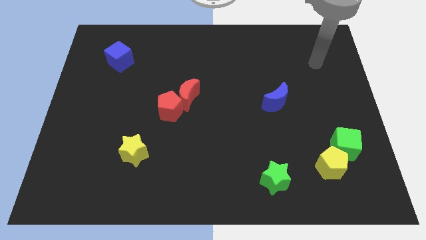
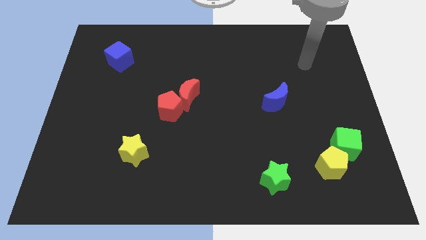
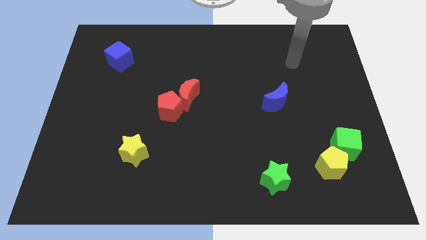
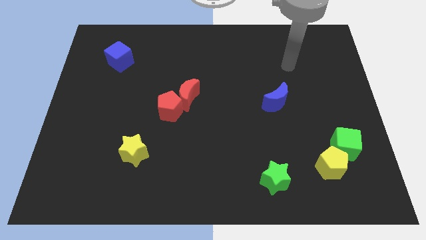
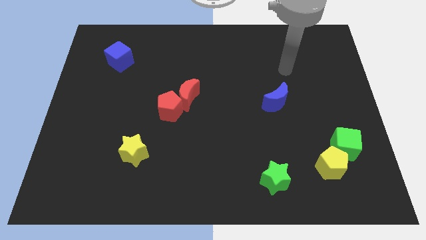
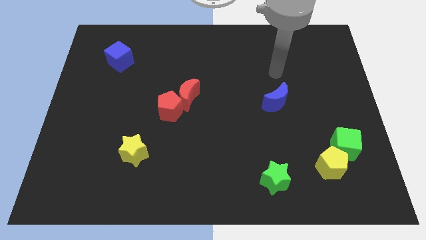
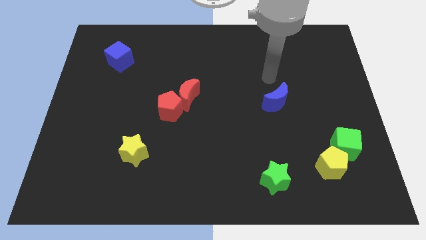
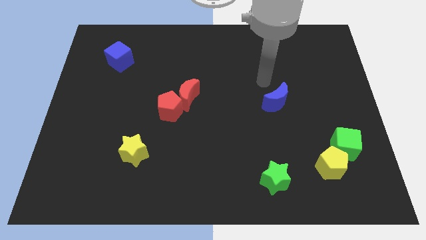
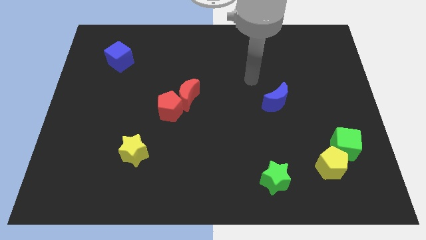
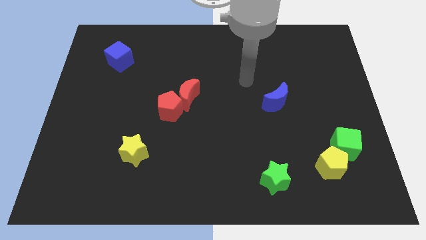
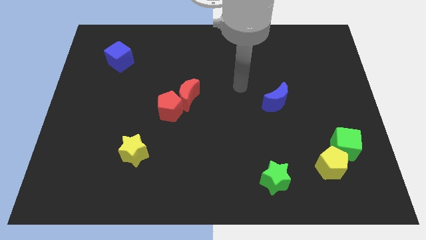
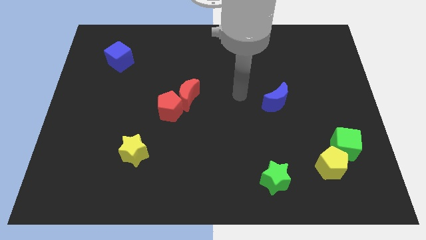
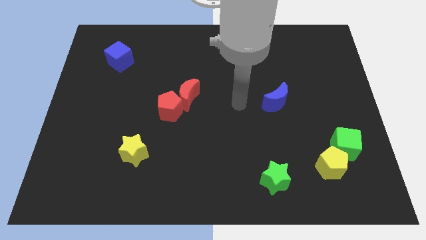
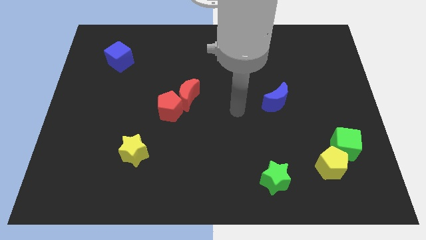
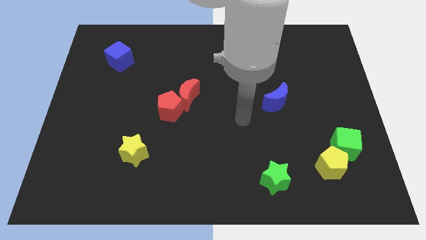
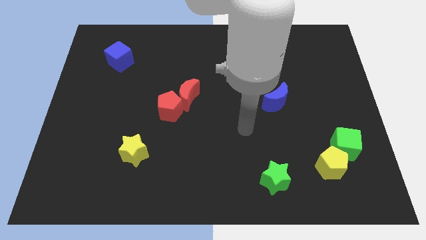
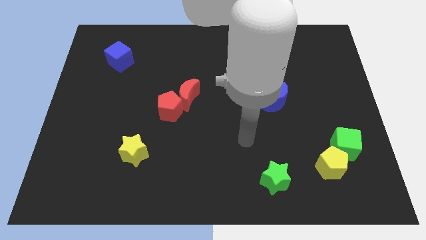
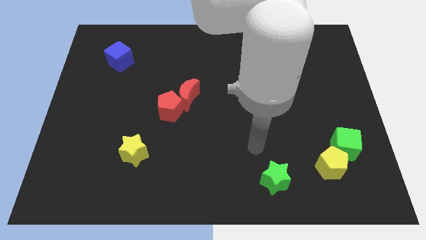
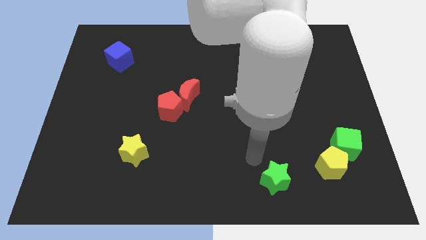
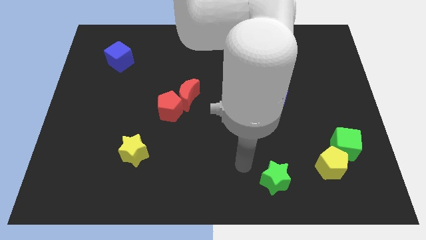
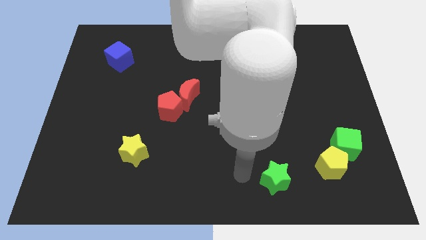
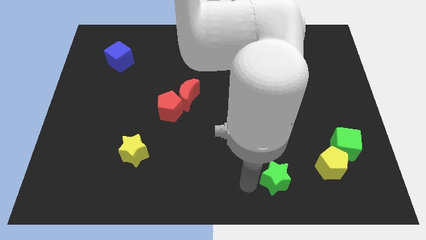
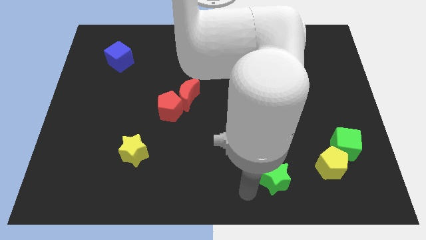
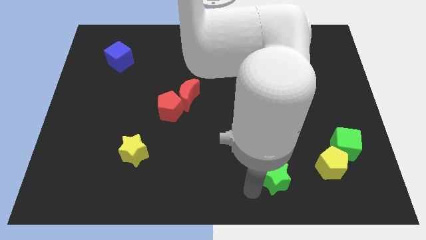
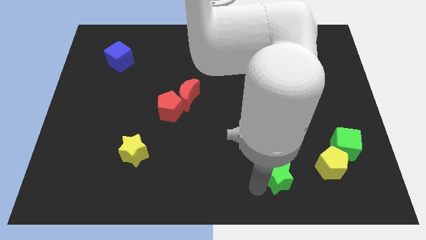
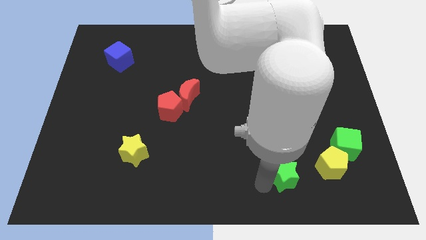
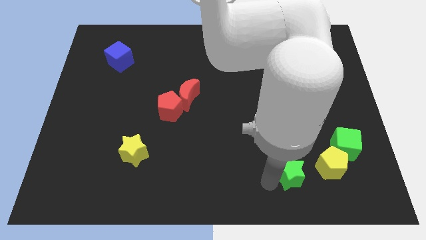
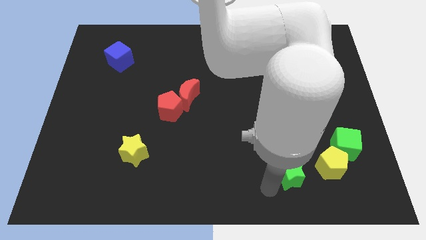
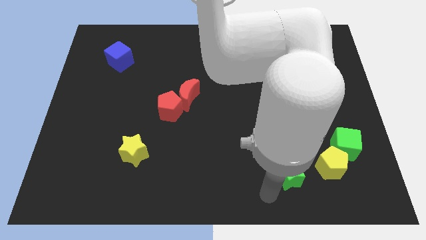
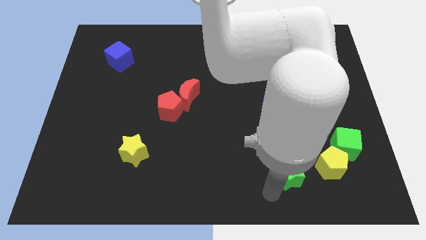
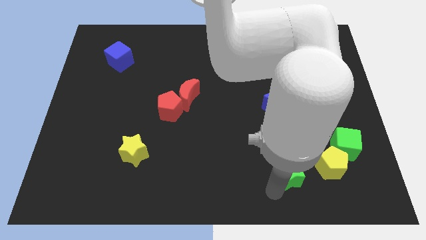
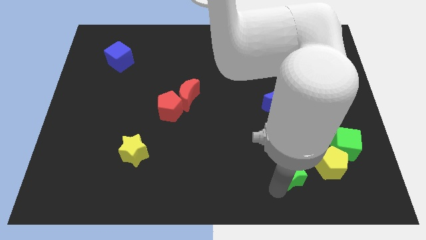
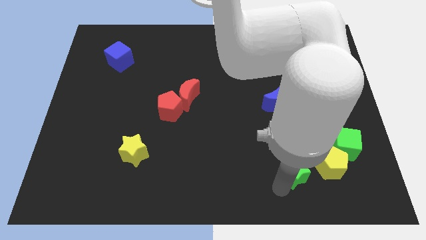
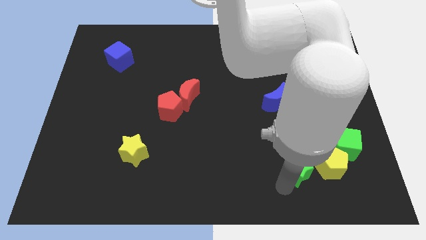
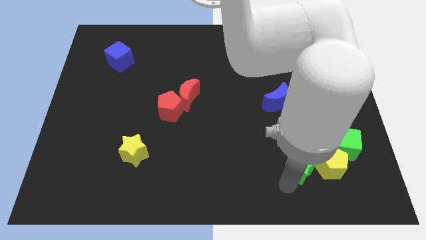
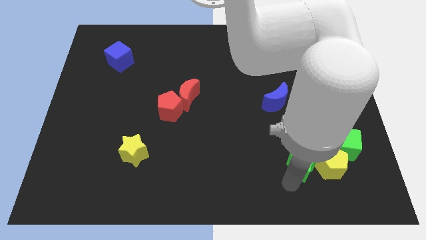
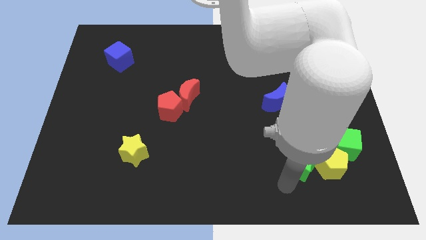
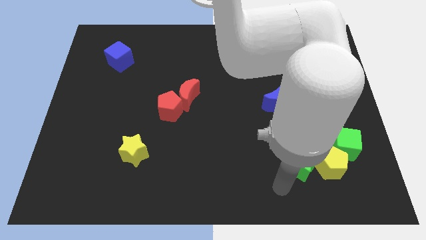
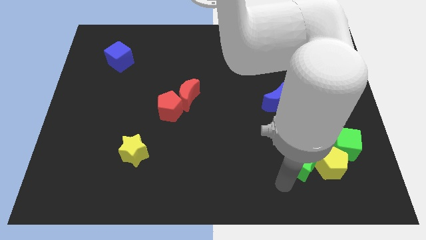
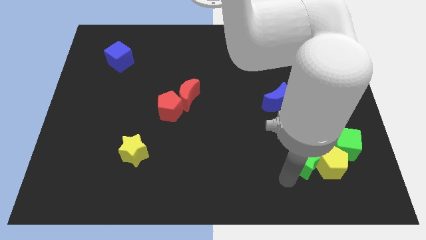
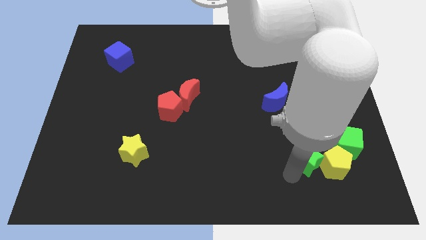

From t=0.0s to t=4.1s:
slightly slide the green star upwards and right diagonally

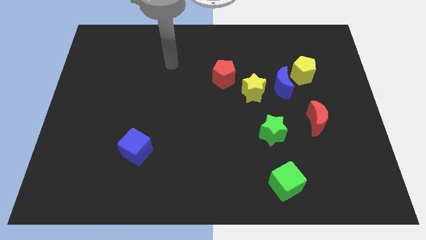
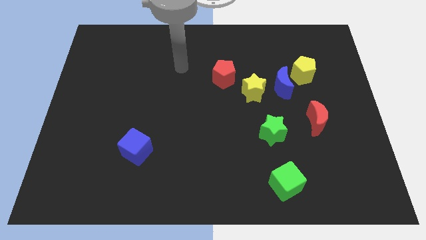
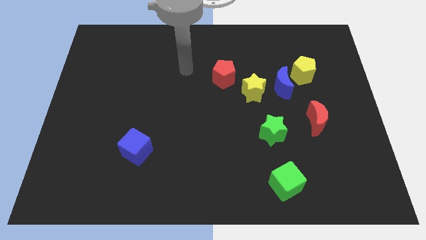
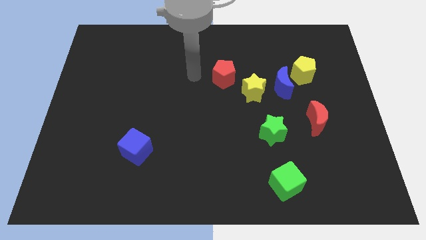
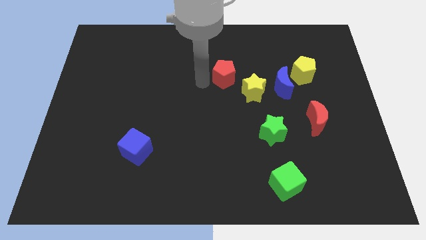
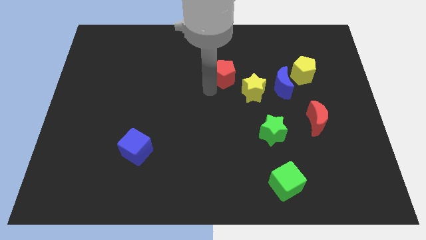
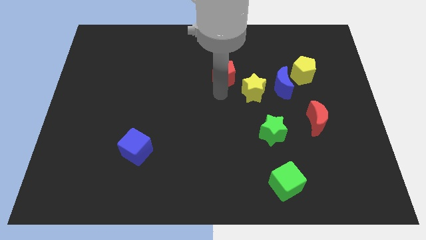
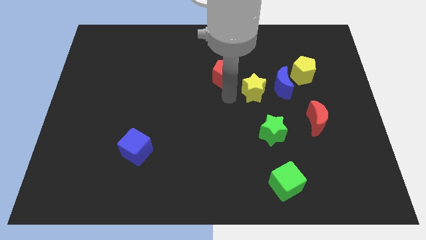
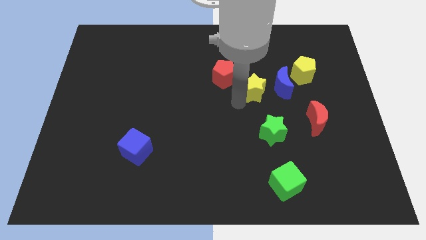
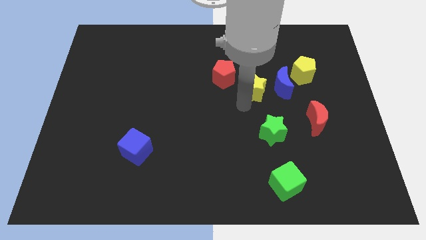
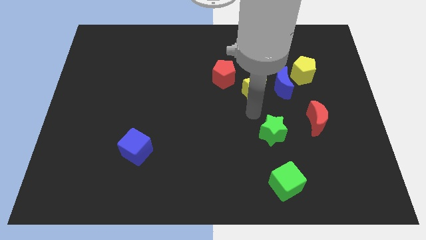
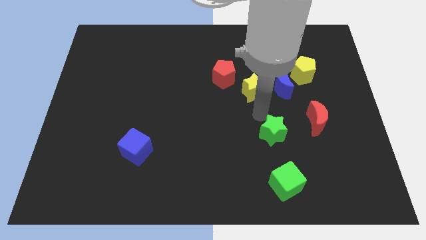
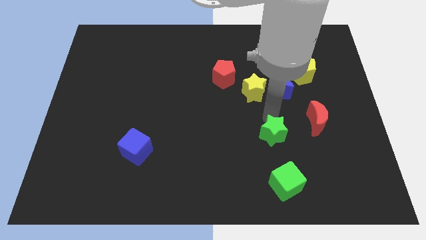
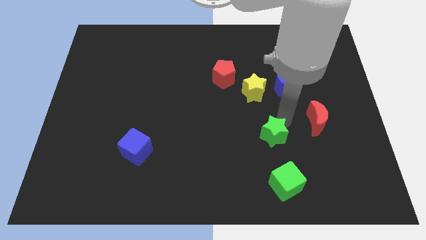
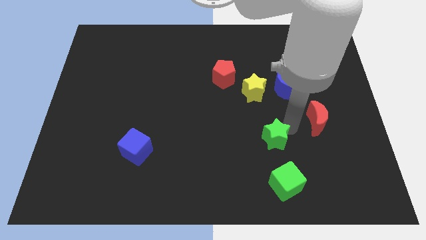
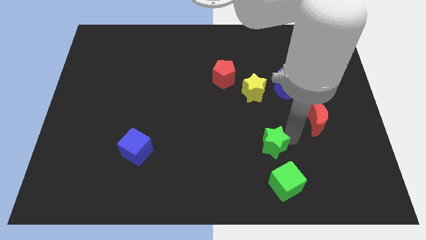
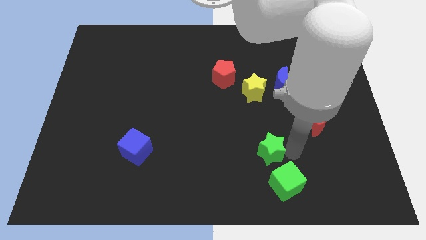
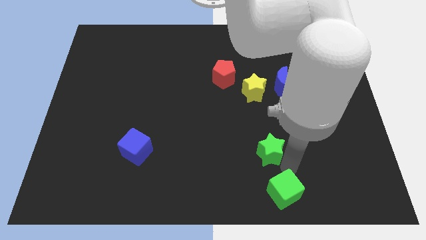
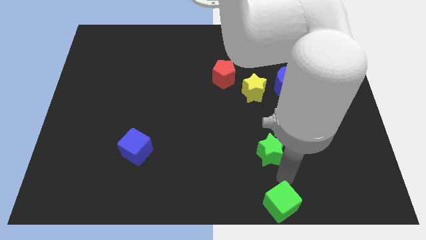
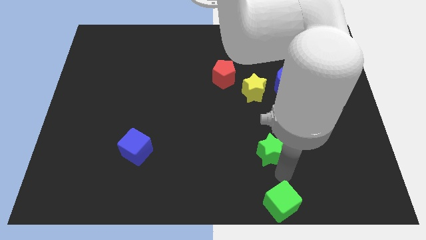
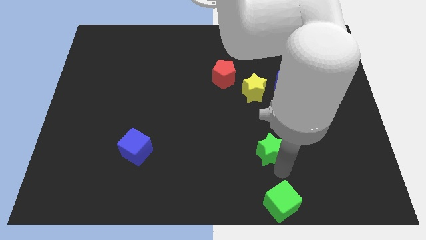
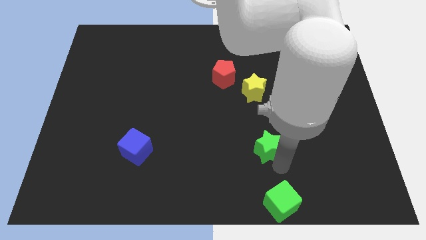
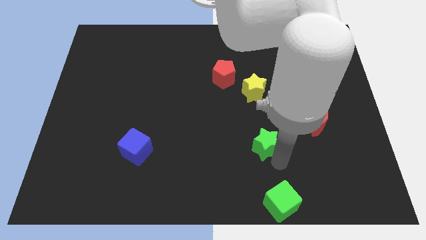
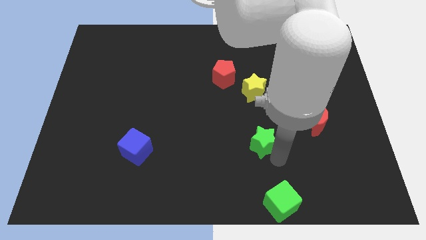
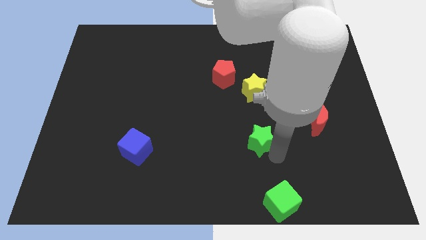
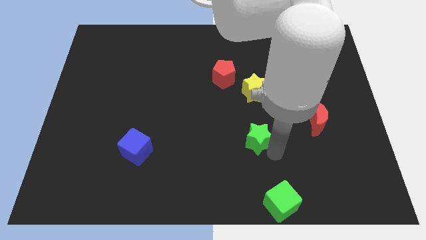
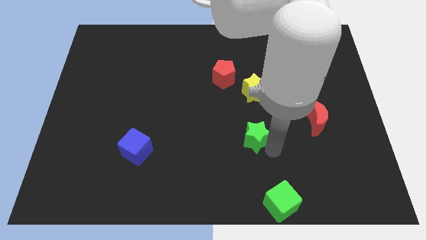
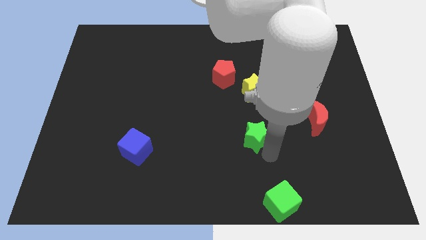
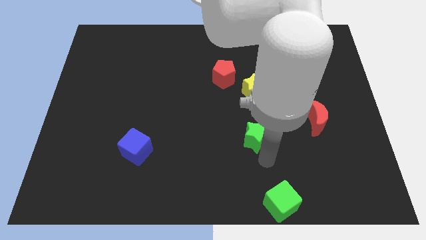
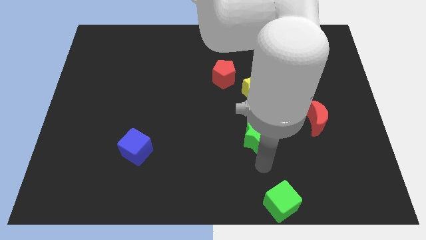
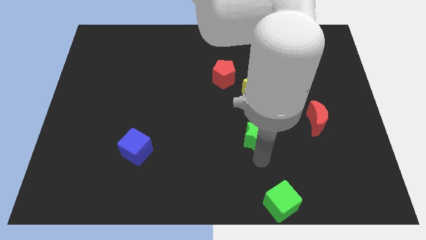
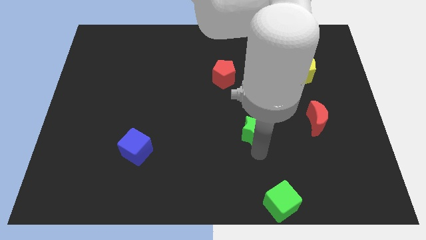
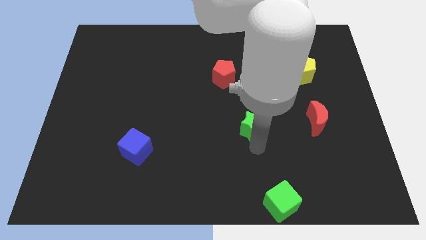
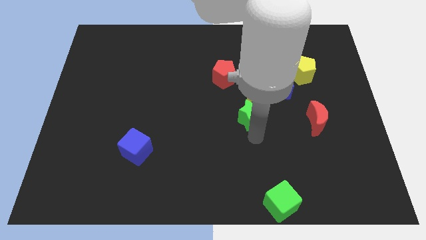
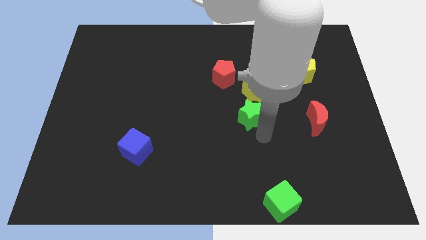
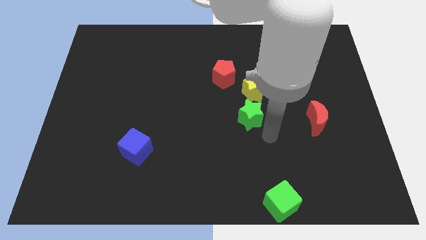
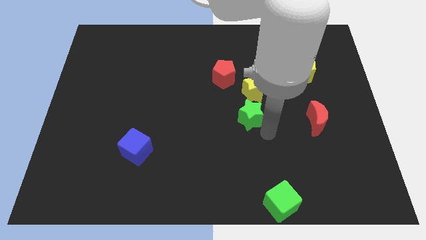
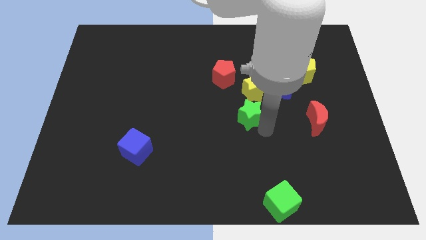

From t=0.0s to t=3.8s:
slightly slide the green star diagonally upwards and left
